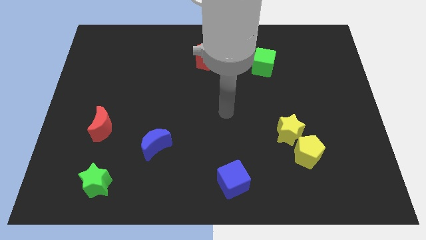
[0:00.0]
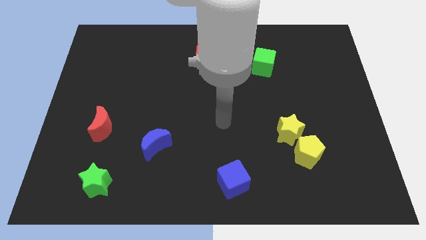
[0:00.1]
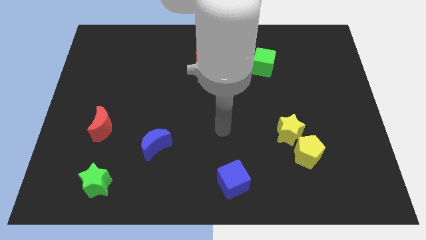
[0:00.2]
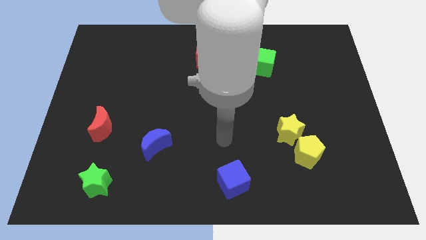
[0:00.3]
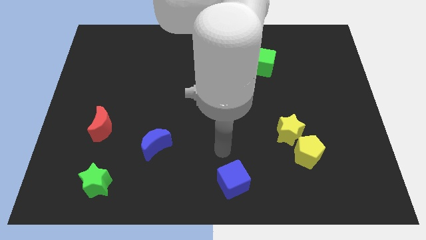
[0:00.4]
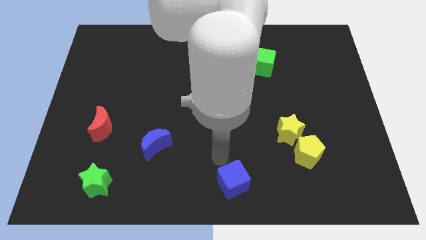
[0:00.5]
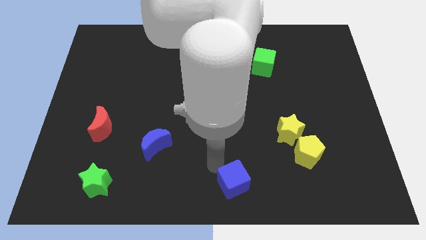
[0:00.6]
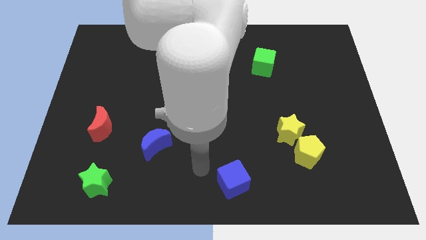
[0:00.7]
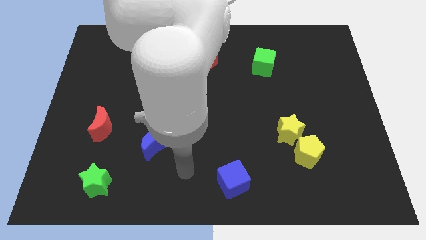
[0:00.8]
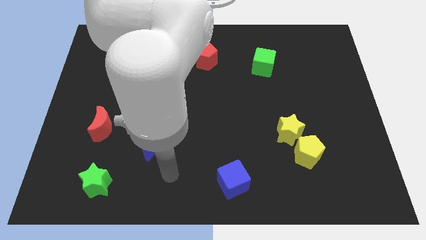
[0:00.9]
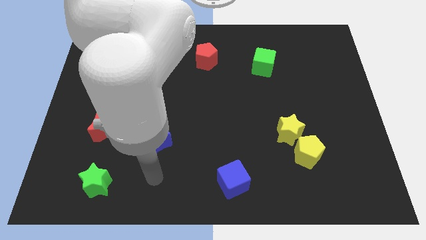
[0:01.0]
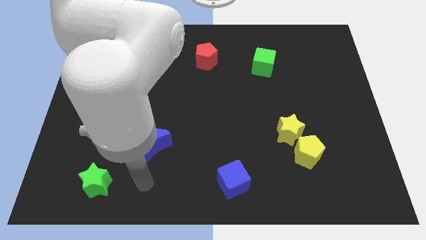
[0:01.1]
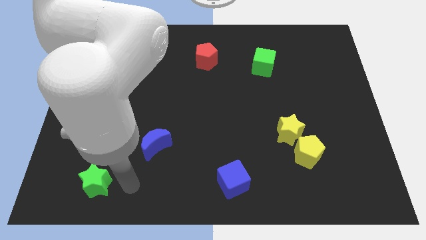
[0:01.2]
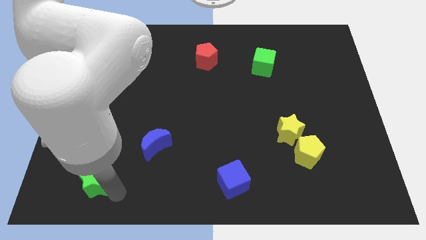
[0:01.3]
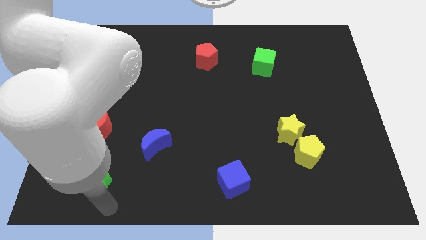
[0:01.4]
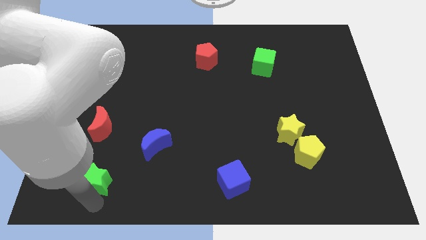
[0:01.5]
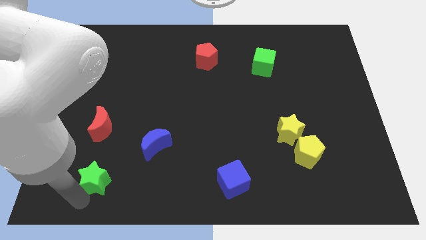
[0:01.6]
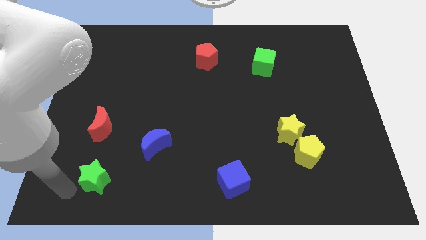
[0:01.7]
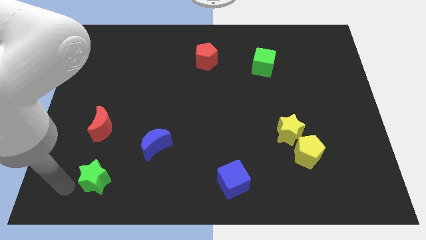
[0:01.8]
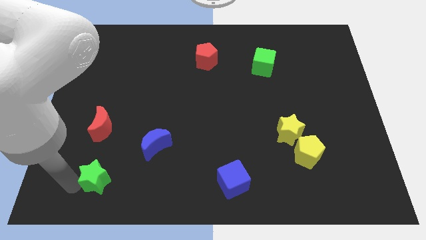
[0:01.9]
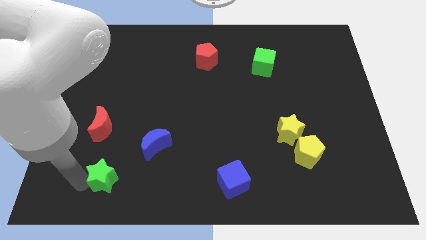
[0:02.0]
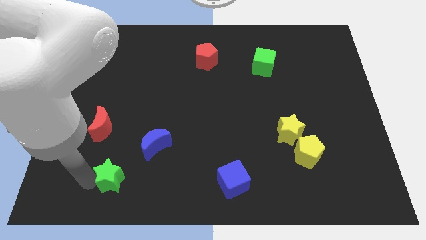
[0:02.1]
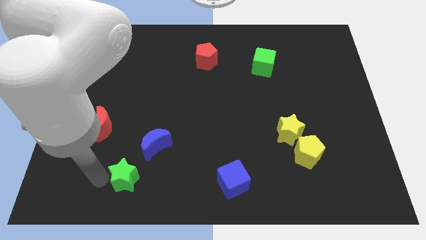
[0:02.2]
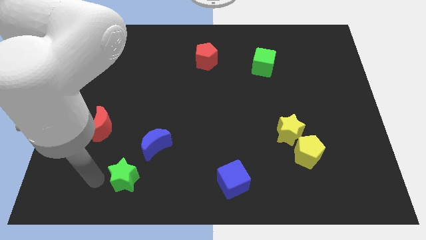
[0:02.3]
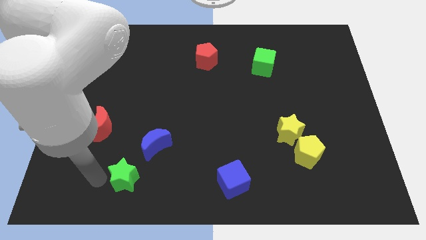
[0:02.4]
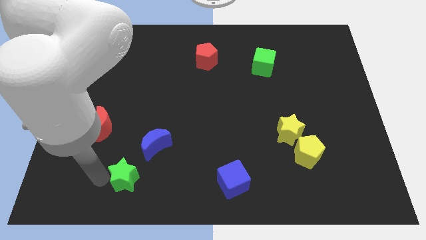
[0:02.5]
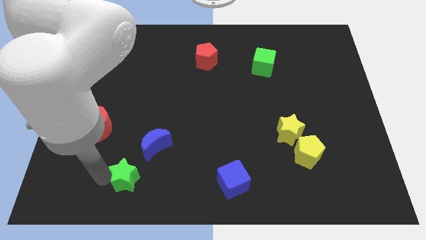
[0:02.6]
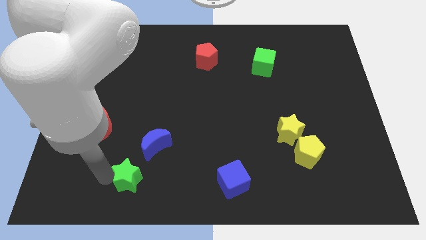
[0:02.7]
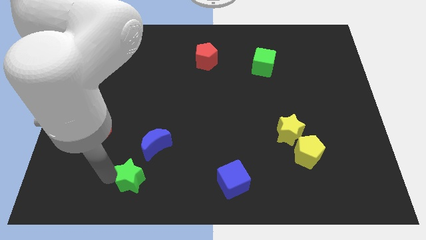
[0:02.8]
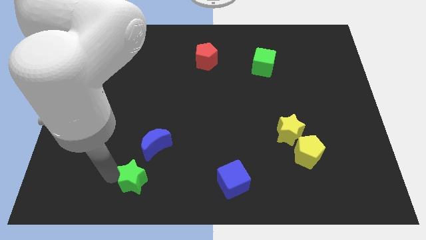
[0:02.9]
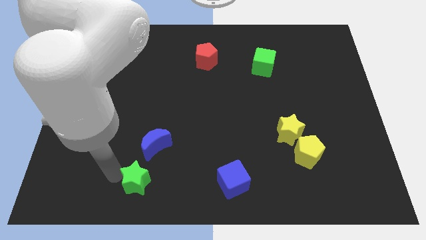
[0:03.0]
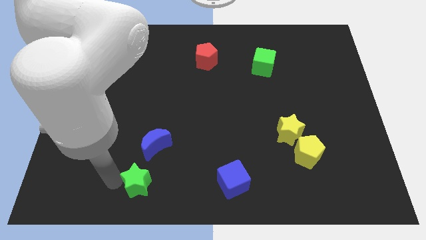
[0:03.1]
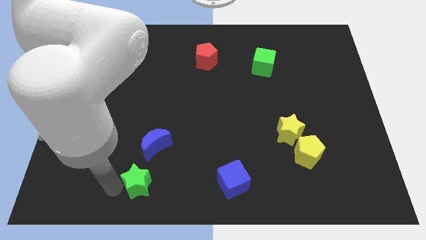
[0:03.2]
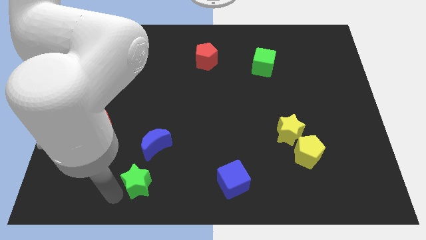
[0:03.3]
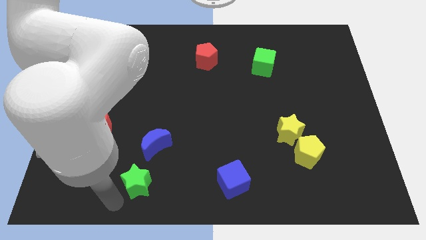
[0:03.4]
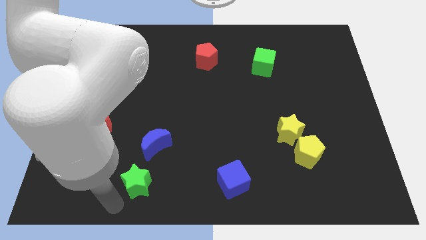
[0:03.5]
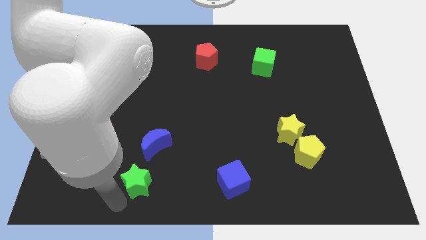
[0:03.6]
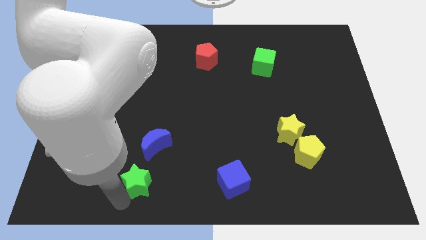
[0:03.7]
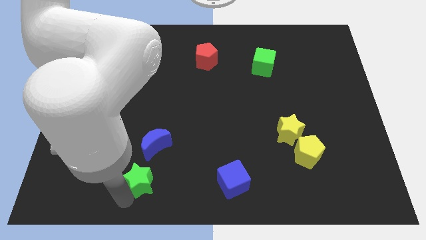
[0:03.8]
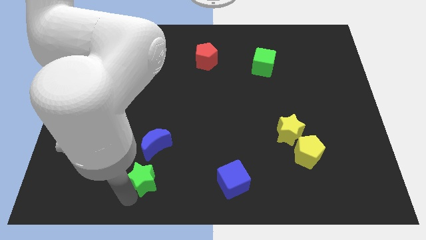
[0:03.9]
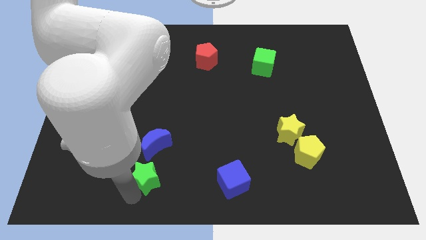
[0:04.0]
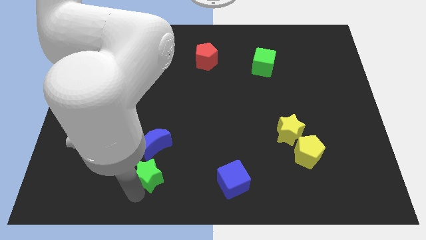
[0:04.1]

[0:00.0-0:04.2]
move the green star diagonally up and to the right a bit

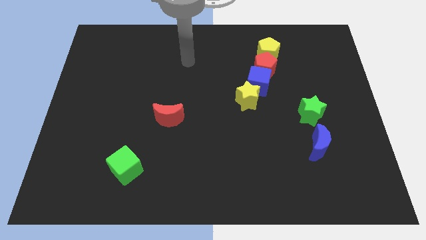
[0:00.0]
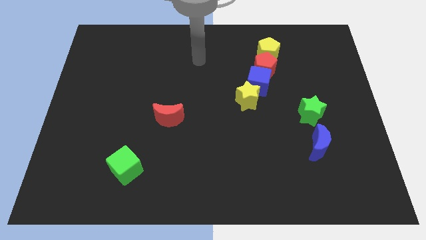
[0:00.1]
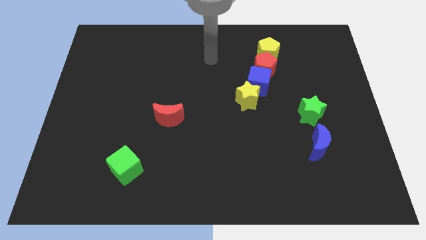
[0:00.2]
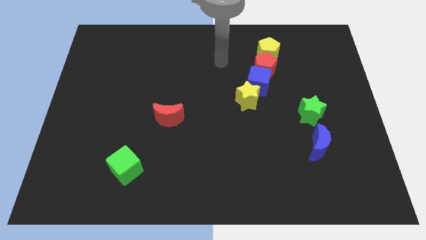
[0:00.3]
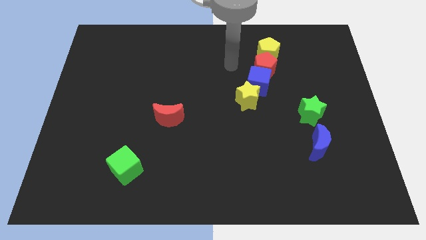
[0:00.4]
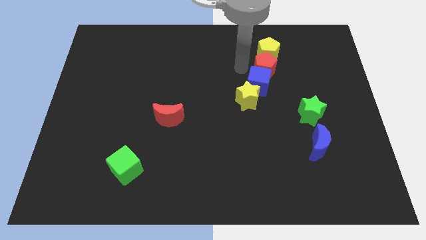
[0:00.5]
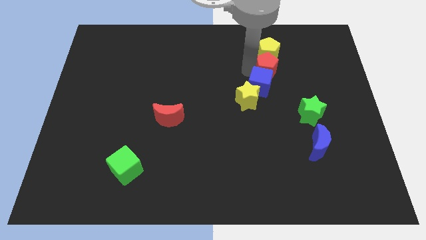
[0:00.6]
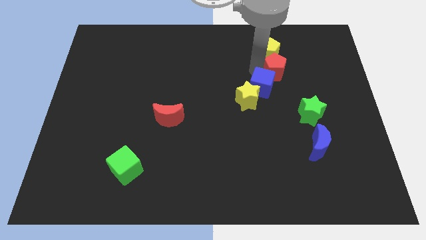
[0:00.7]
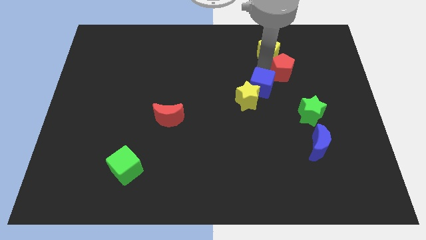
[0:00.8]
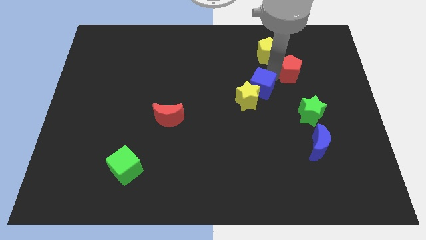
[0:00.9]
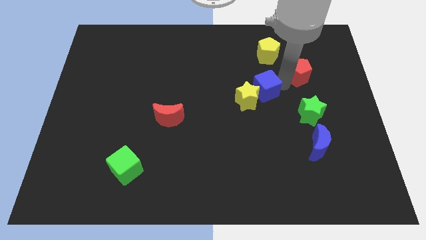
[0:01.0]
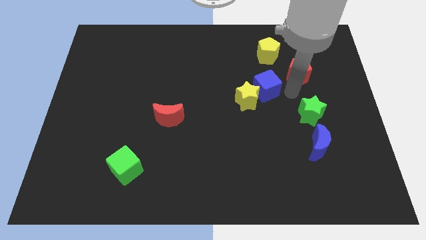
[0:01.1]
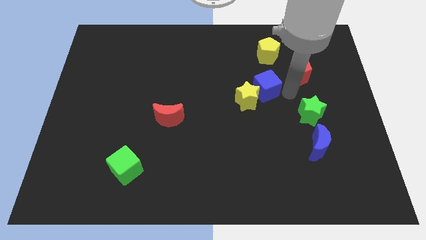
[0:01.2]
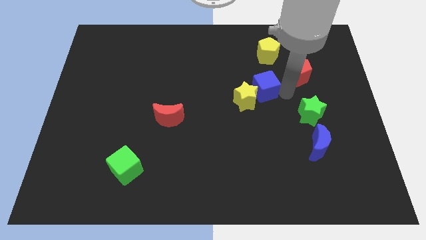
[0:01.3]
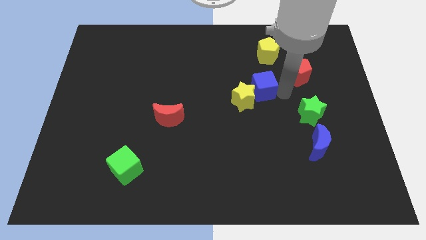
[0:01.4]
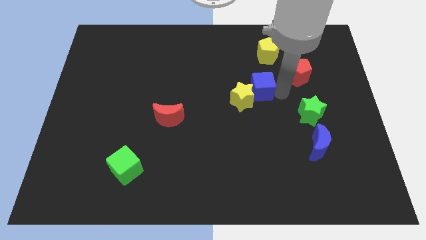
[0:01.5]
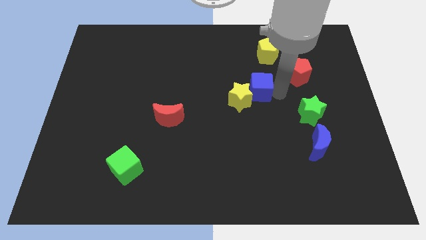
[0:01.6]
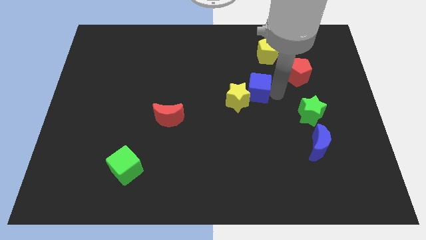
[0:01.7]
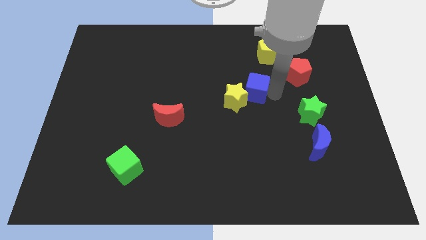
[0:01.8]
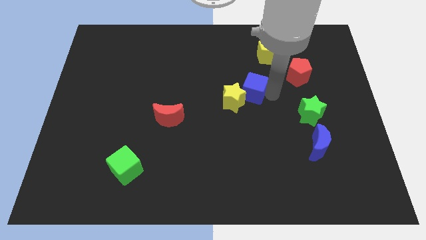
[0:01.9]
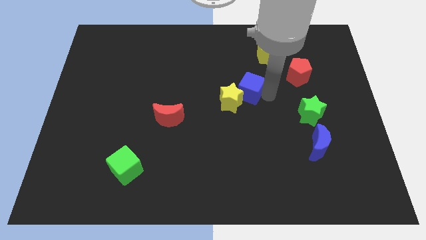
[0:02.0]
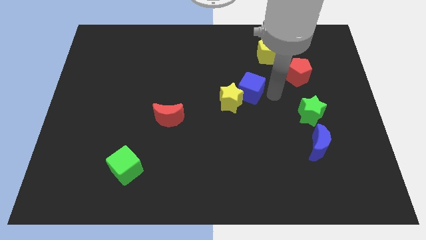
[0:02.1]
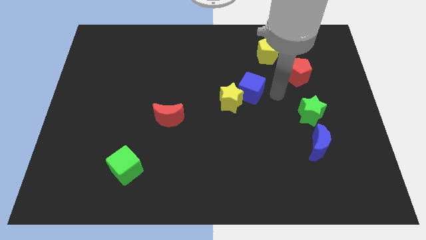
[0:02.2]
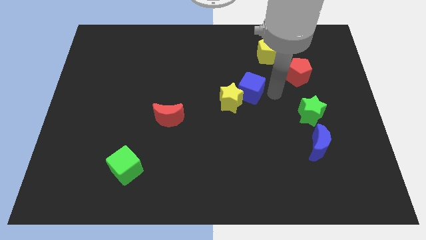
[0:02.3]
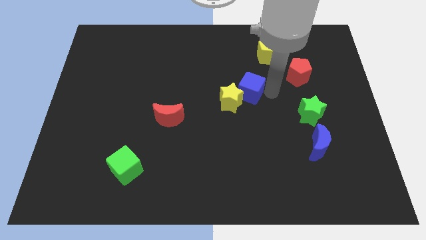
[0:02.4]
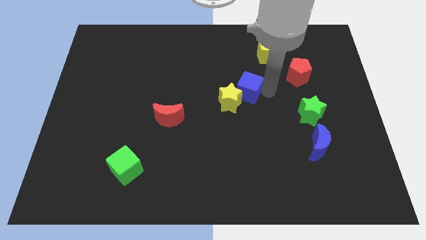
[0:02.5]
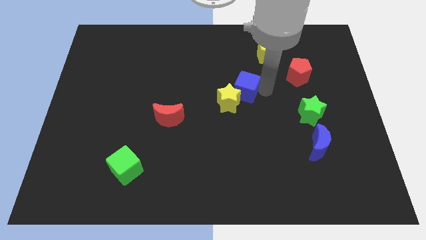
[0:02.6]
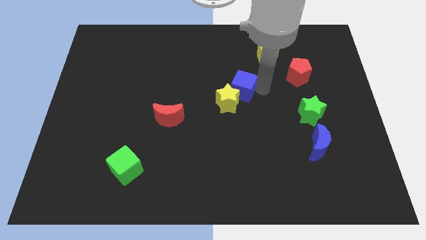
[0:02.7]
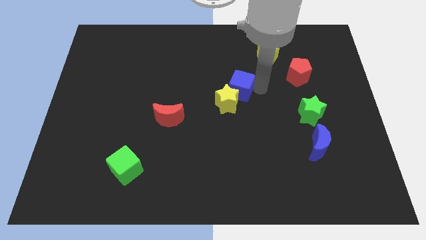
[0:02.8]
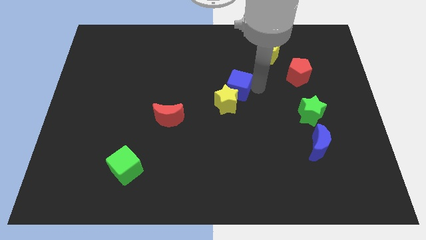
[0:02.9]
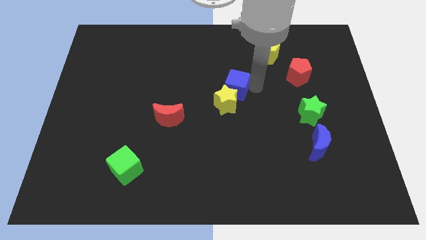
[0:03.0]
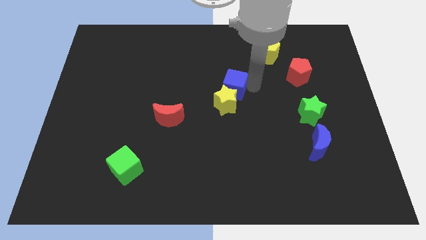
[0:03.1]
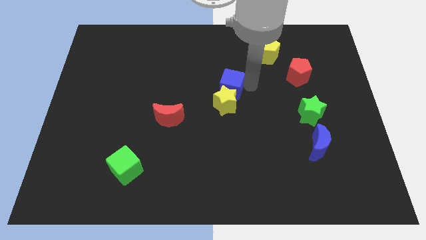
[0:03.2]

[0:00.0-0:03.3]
move the blue cube a little left

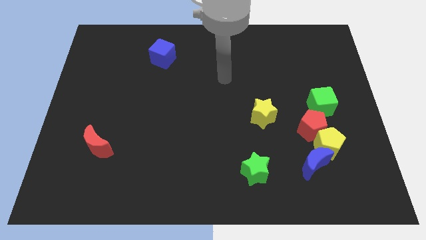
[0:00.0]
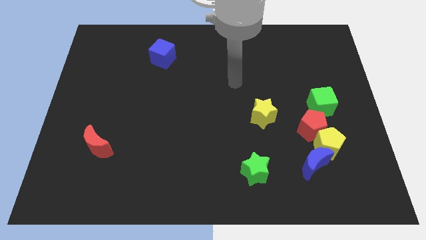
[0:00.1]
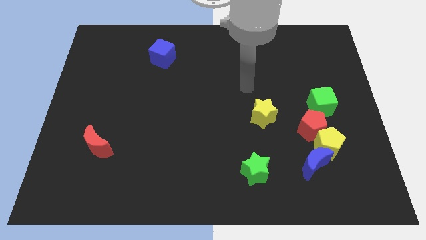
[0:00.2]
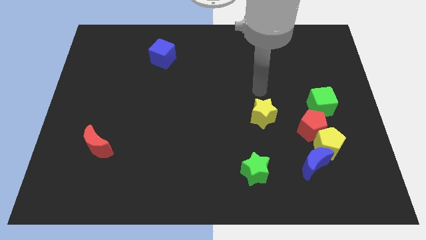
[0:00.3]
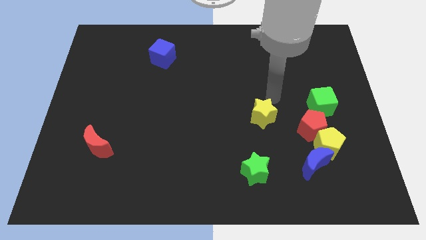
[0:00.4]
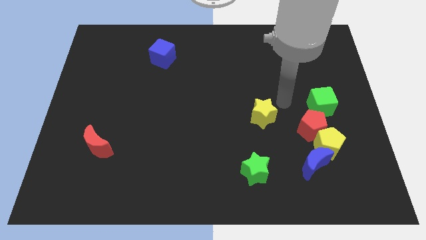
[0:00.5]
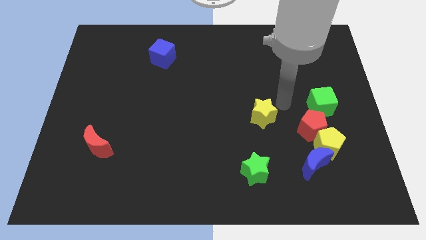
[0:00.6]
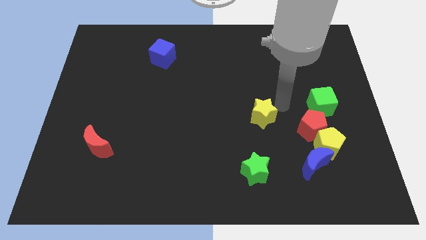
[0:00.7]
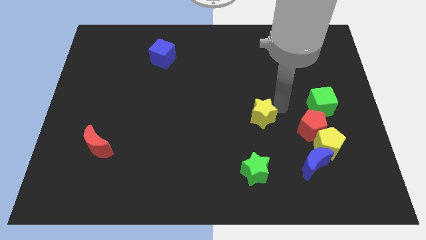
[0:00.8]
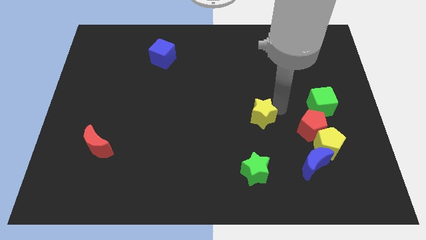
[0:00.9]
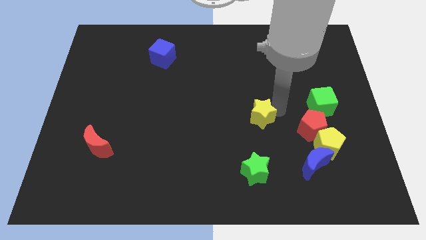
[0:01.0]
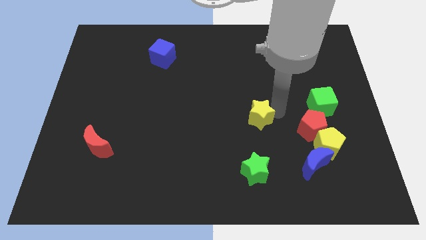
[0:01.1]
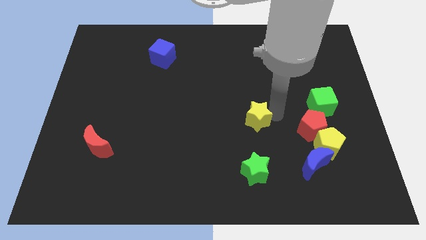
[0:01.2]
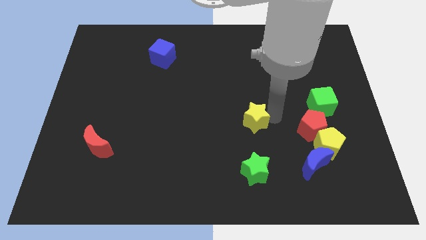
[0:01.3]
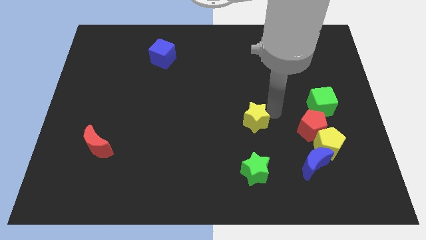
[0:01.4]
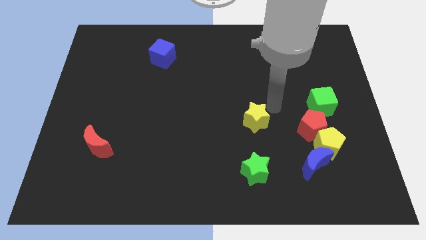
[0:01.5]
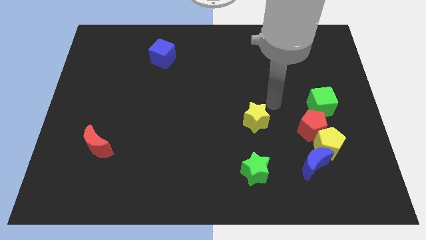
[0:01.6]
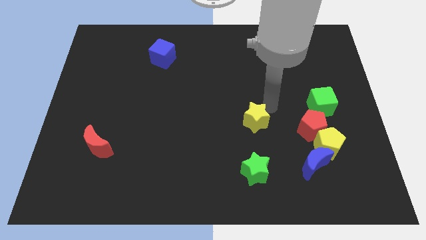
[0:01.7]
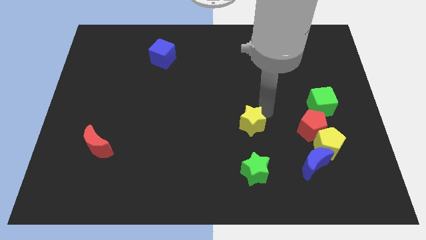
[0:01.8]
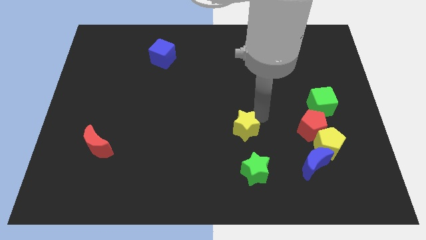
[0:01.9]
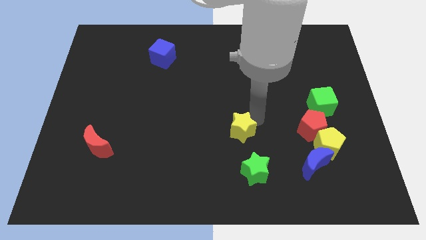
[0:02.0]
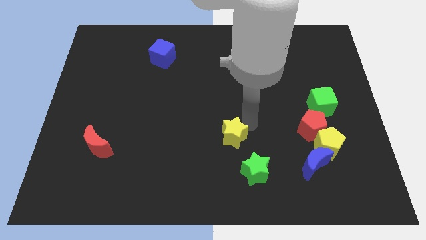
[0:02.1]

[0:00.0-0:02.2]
slightly push the yellow star diagonally down and left
